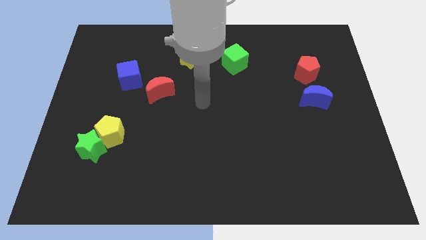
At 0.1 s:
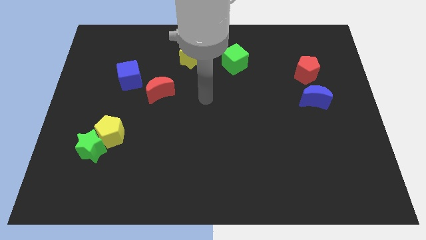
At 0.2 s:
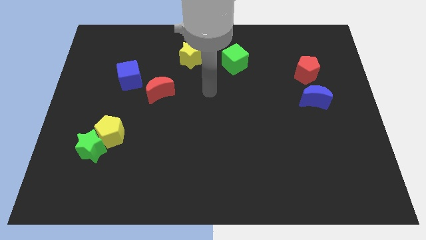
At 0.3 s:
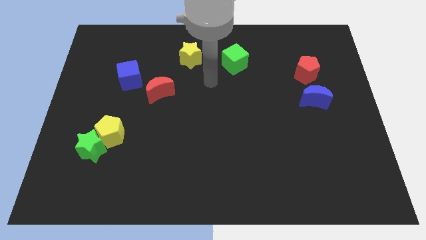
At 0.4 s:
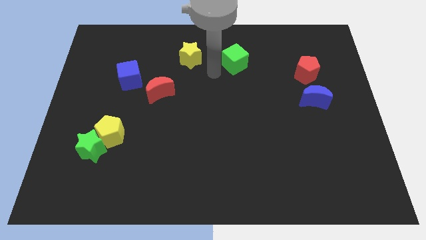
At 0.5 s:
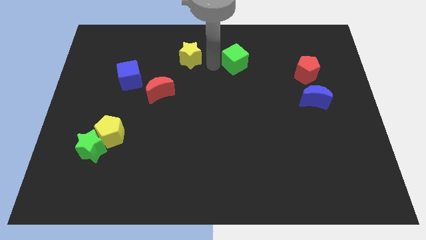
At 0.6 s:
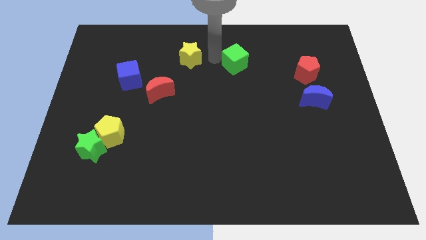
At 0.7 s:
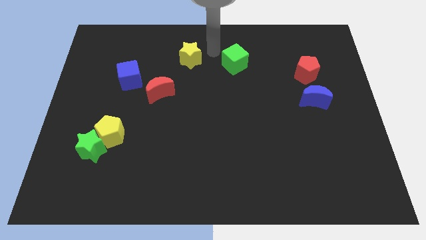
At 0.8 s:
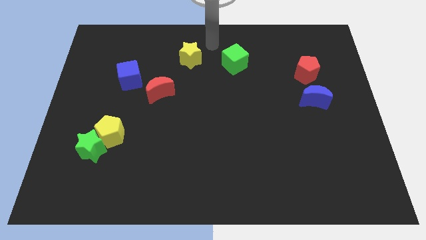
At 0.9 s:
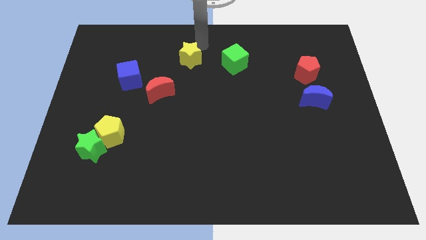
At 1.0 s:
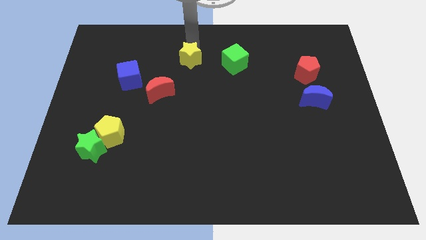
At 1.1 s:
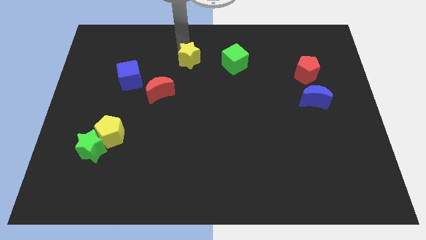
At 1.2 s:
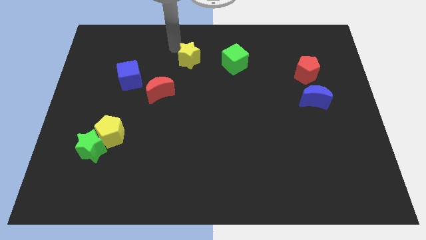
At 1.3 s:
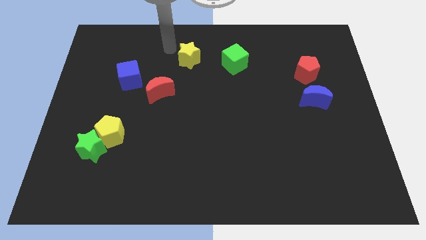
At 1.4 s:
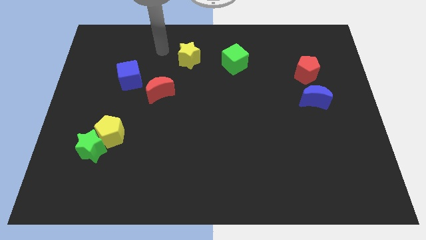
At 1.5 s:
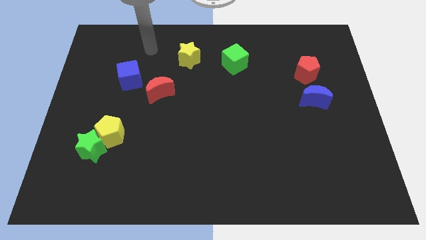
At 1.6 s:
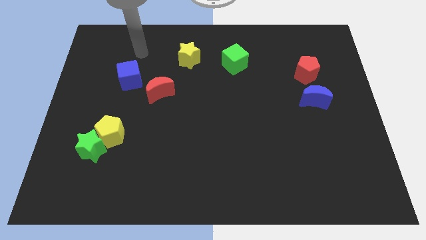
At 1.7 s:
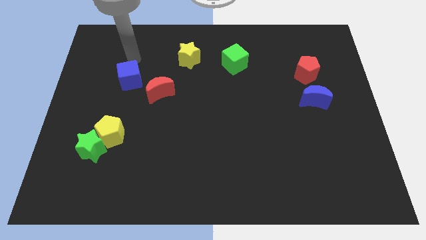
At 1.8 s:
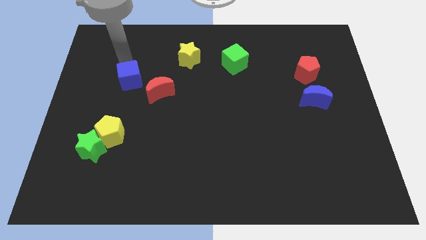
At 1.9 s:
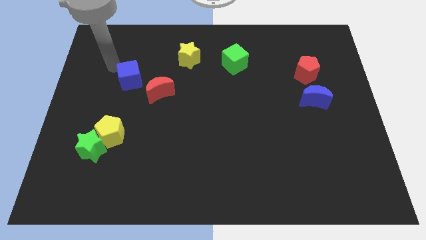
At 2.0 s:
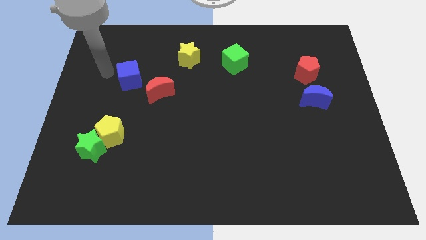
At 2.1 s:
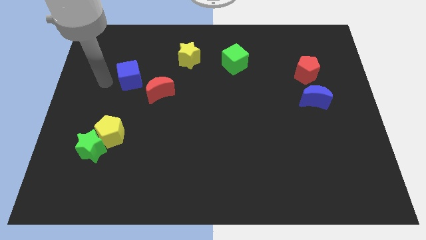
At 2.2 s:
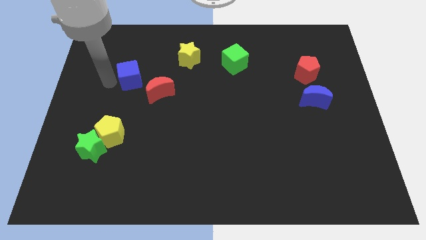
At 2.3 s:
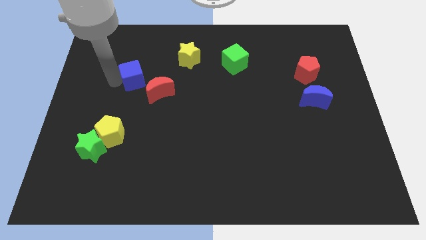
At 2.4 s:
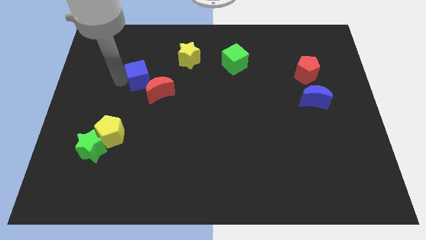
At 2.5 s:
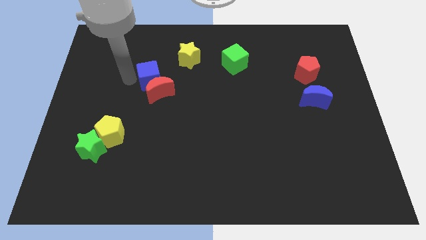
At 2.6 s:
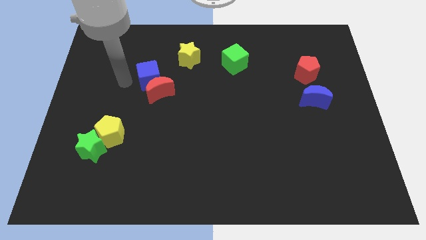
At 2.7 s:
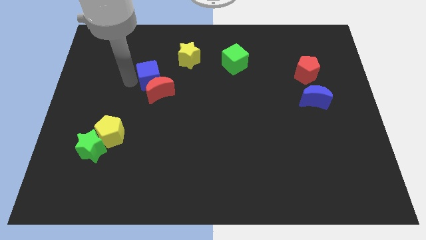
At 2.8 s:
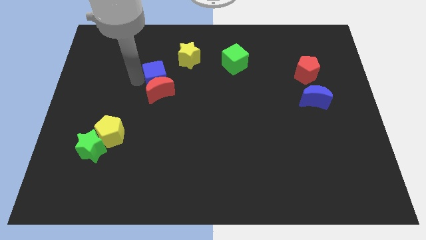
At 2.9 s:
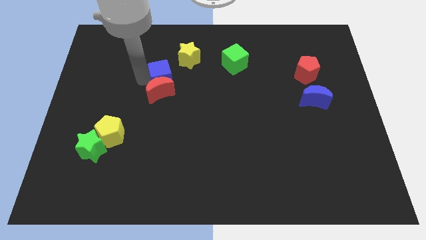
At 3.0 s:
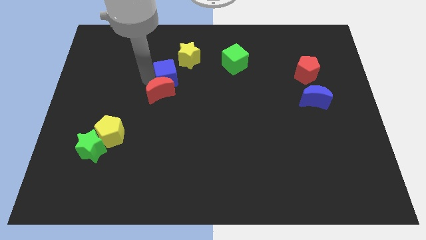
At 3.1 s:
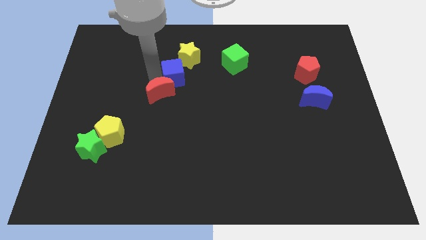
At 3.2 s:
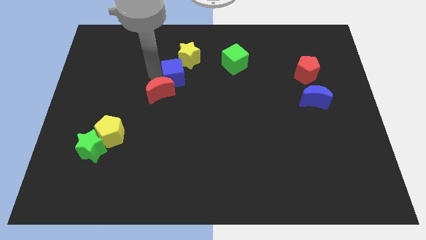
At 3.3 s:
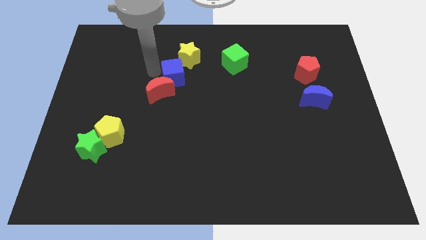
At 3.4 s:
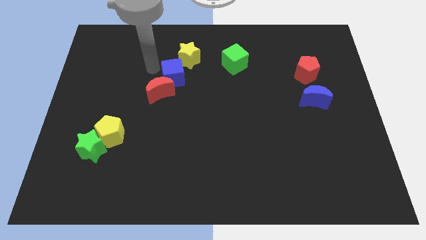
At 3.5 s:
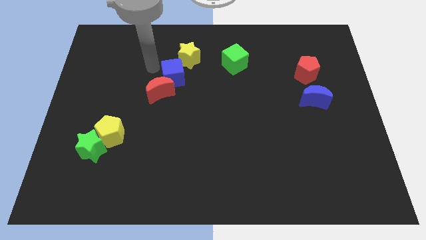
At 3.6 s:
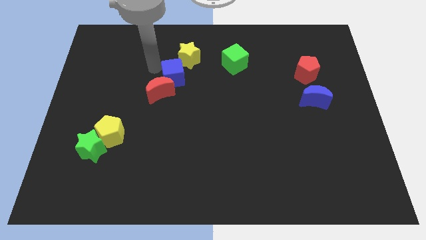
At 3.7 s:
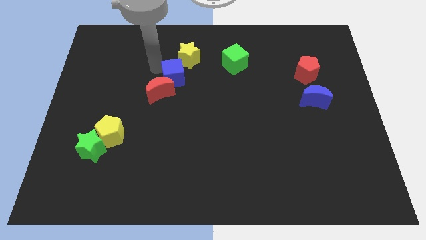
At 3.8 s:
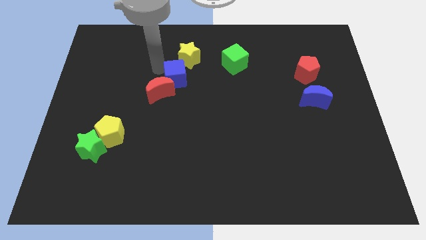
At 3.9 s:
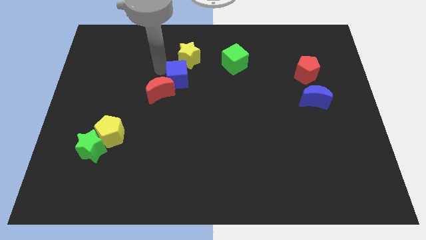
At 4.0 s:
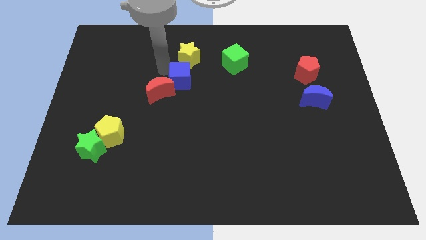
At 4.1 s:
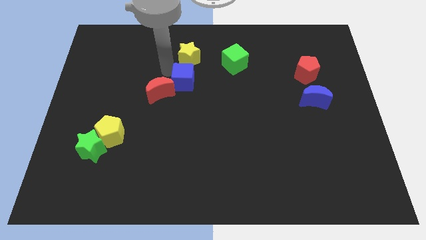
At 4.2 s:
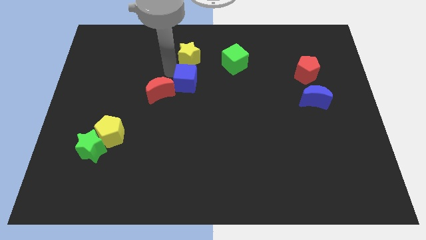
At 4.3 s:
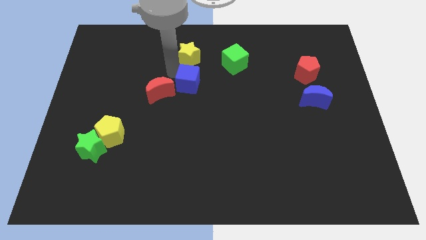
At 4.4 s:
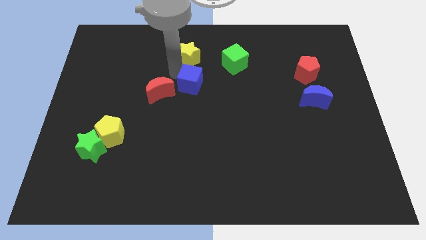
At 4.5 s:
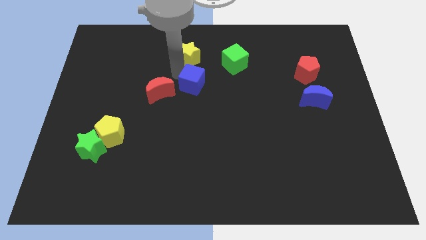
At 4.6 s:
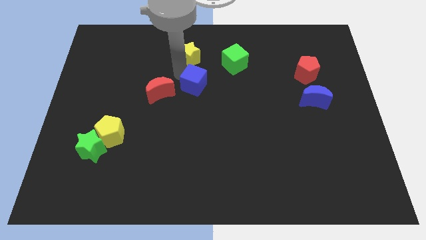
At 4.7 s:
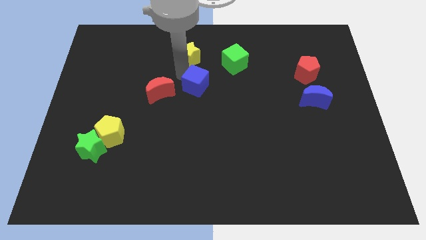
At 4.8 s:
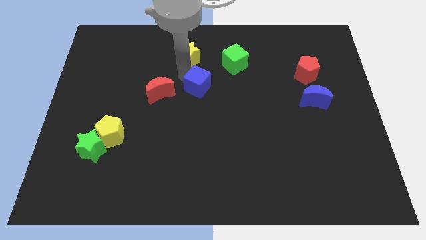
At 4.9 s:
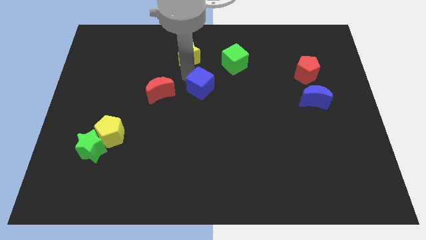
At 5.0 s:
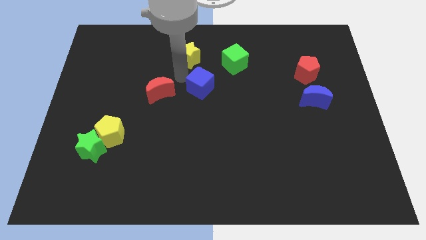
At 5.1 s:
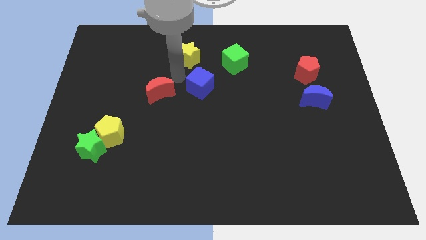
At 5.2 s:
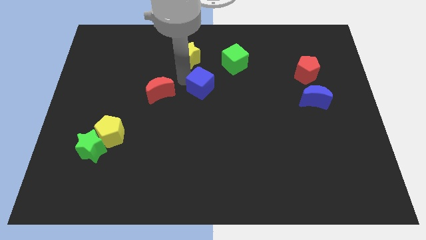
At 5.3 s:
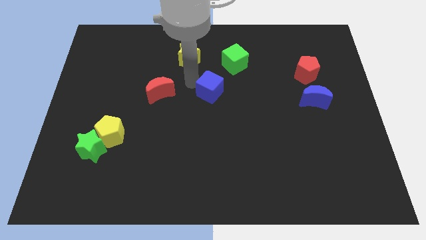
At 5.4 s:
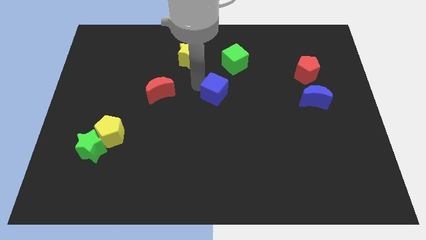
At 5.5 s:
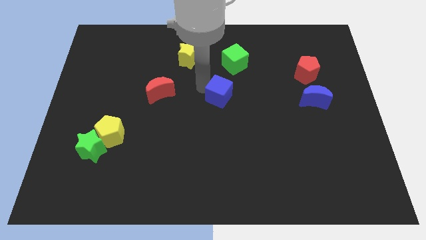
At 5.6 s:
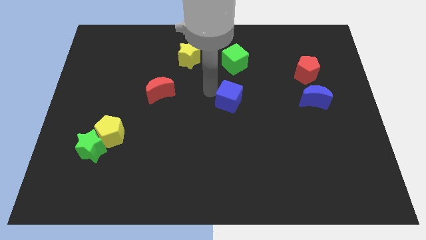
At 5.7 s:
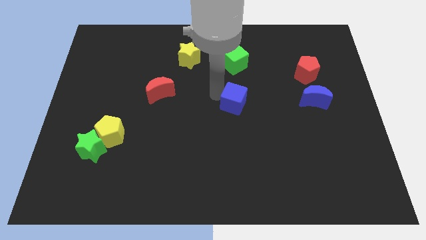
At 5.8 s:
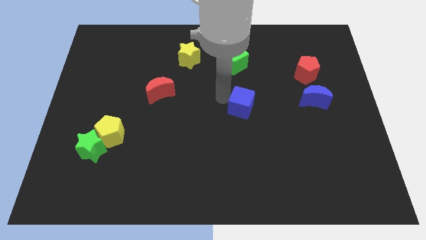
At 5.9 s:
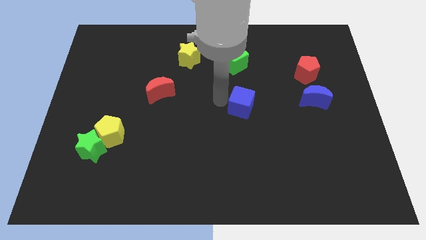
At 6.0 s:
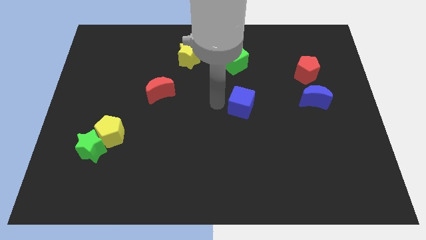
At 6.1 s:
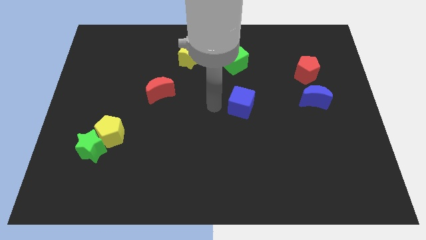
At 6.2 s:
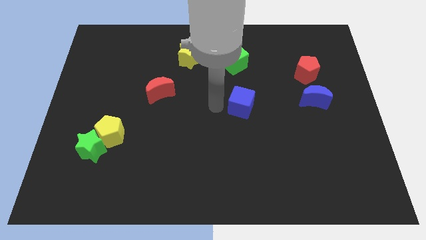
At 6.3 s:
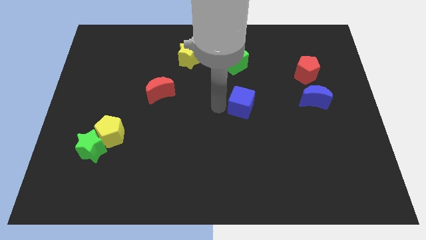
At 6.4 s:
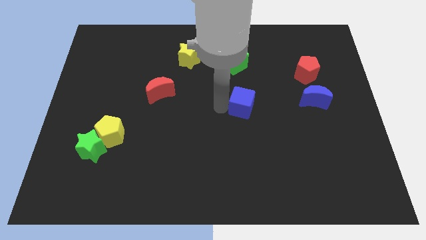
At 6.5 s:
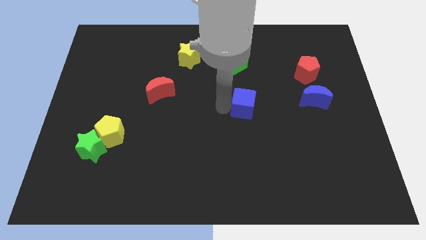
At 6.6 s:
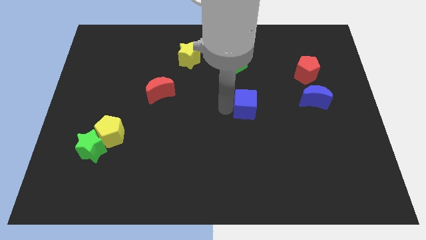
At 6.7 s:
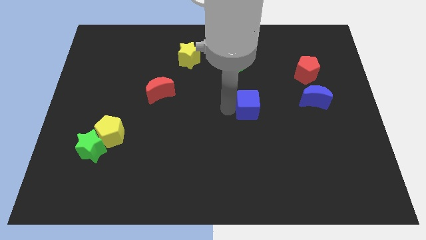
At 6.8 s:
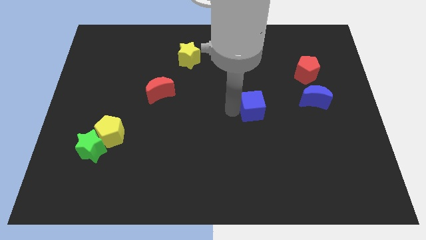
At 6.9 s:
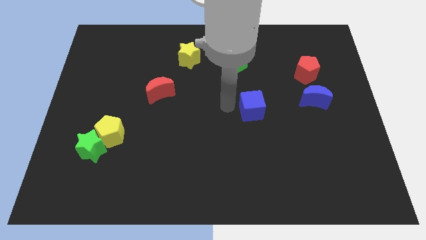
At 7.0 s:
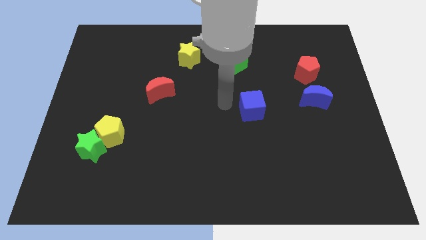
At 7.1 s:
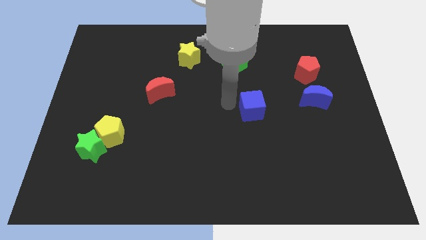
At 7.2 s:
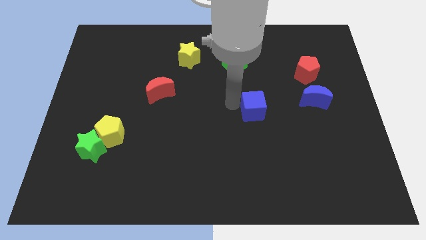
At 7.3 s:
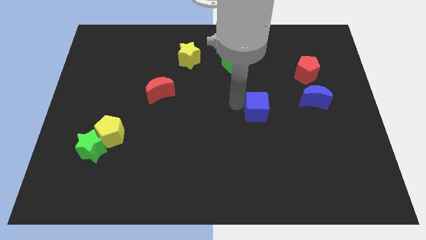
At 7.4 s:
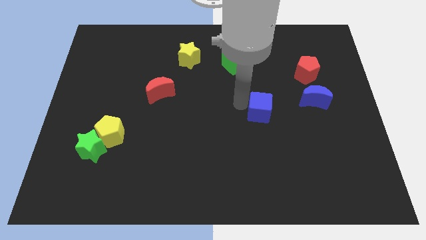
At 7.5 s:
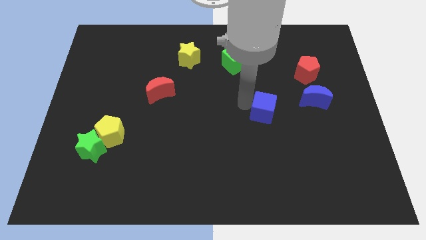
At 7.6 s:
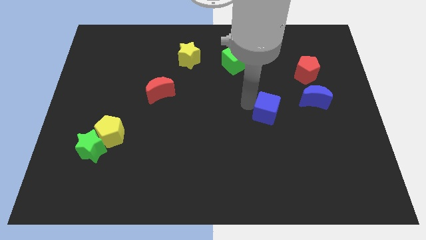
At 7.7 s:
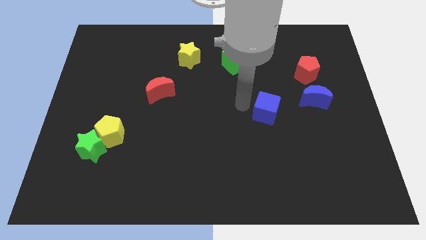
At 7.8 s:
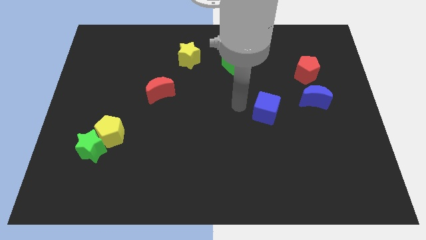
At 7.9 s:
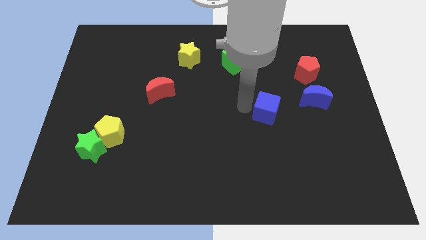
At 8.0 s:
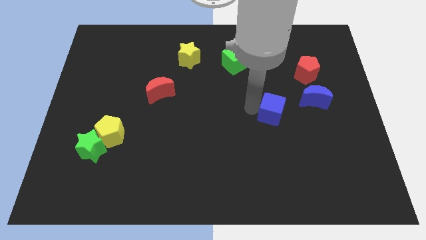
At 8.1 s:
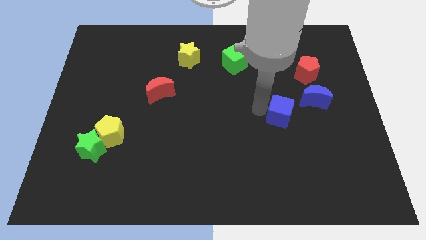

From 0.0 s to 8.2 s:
push the blue cube to the bottom left of the blue moon
